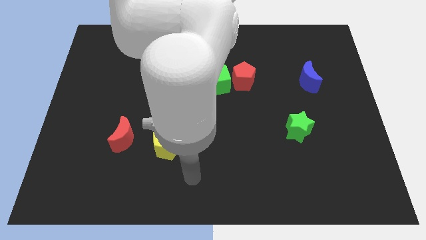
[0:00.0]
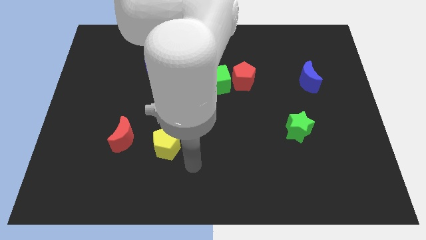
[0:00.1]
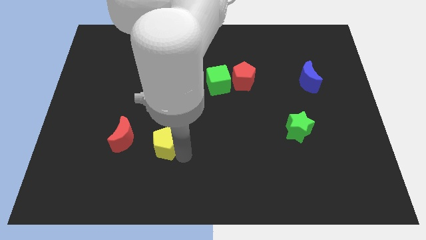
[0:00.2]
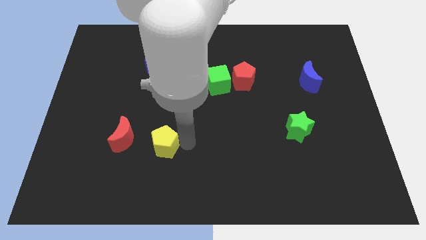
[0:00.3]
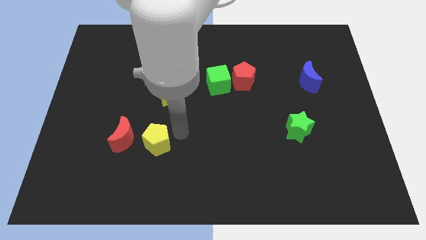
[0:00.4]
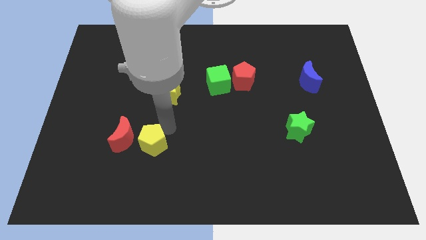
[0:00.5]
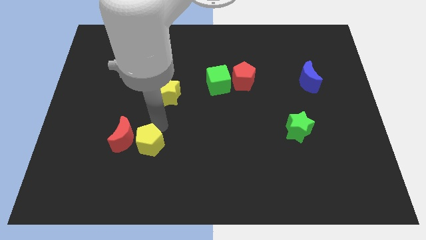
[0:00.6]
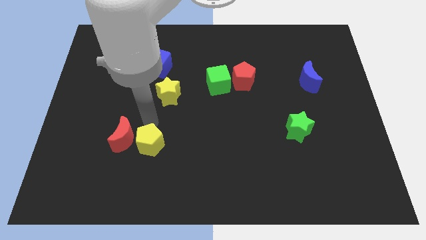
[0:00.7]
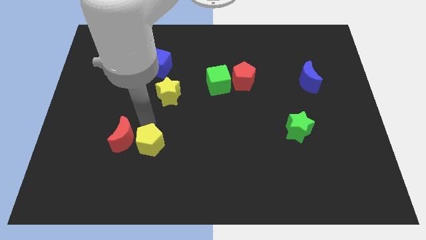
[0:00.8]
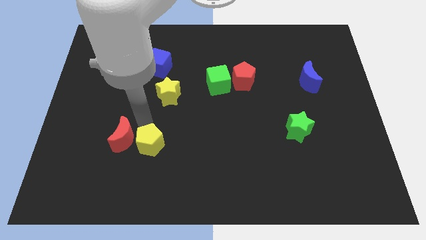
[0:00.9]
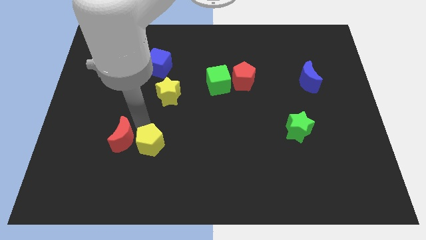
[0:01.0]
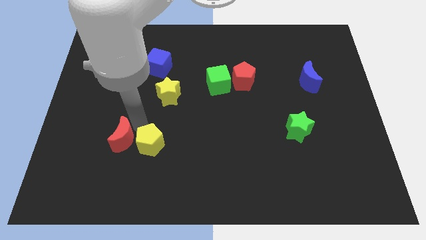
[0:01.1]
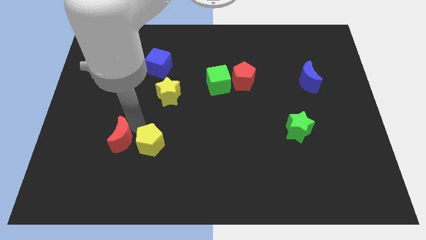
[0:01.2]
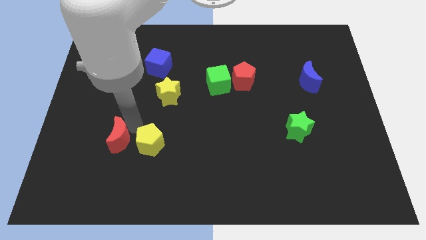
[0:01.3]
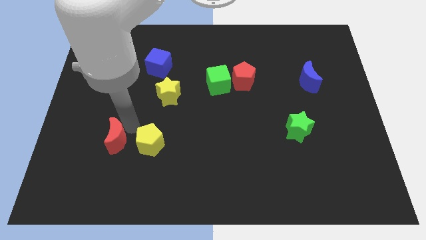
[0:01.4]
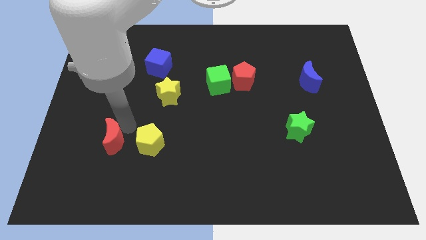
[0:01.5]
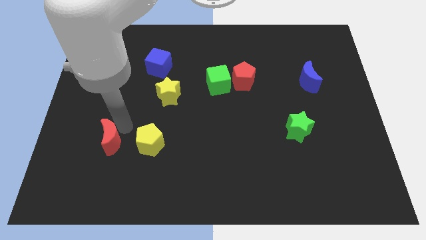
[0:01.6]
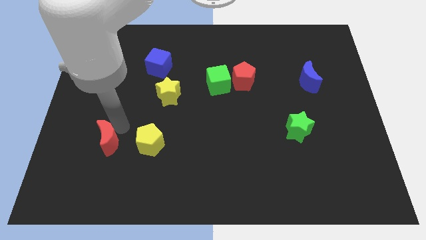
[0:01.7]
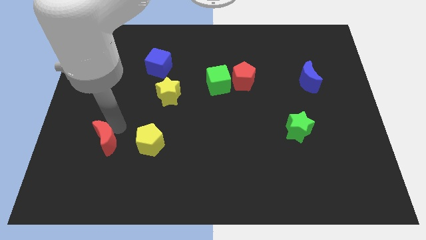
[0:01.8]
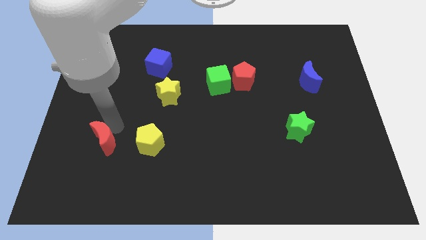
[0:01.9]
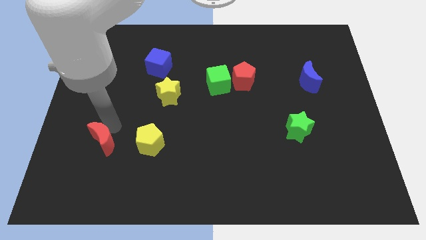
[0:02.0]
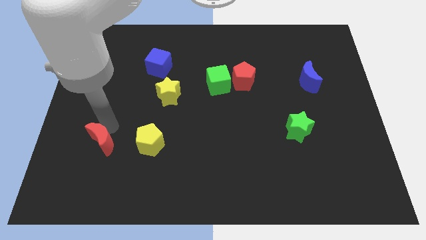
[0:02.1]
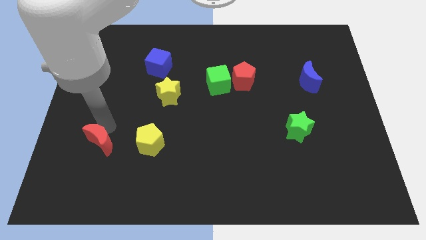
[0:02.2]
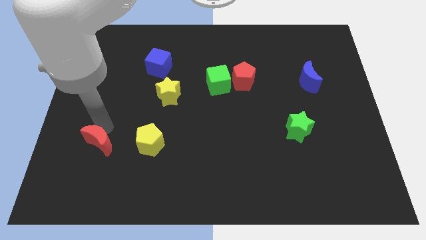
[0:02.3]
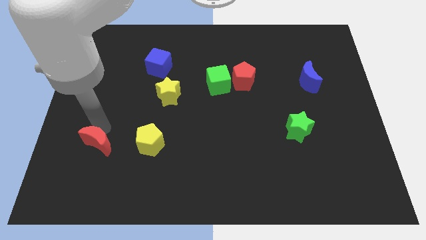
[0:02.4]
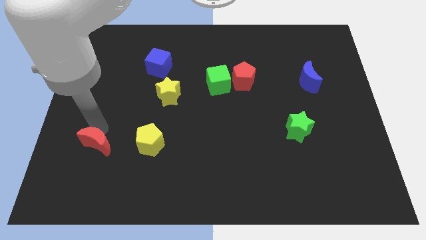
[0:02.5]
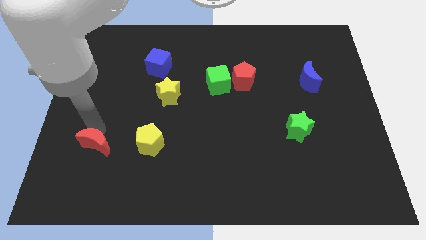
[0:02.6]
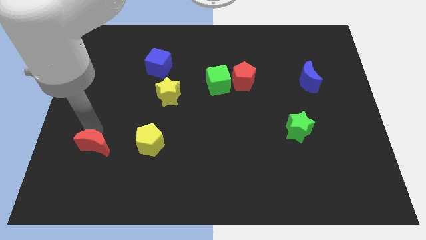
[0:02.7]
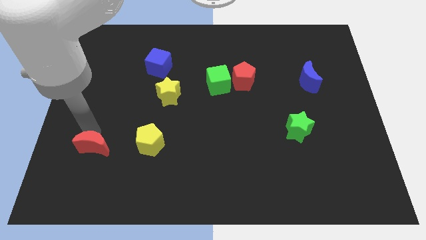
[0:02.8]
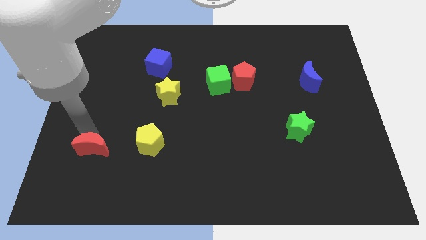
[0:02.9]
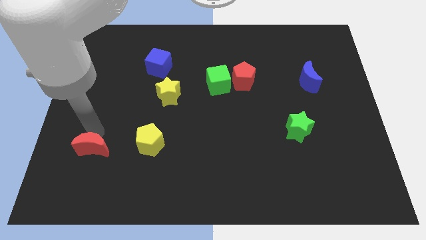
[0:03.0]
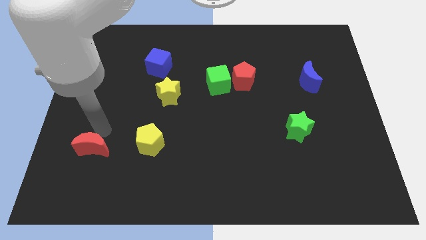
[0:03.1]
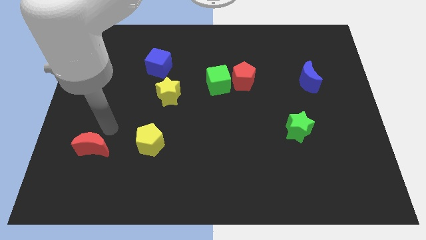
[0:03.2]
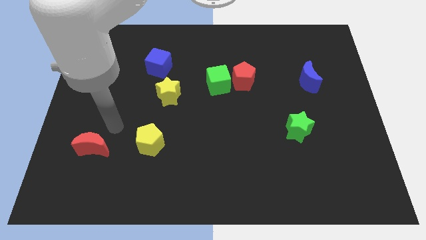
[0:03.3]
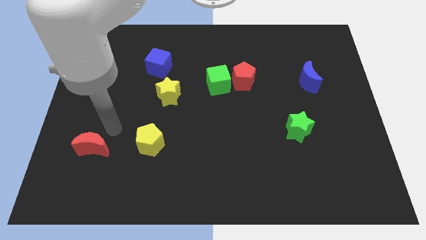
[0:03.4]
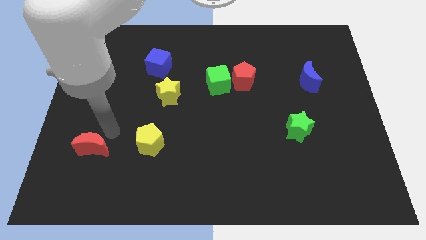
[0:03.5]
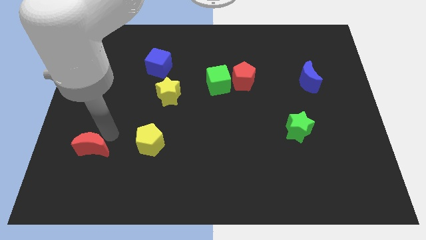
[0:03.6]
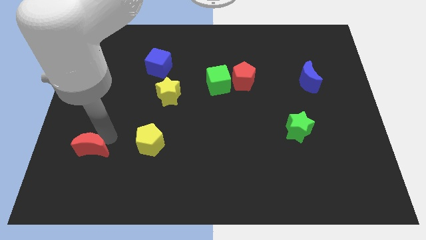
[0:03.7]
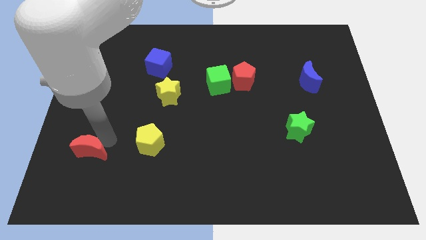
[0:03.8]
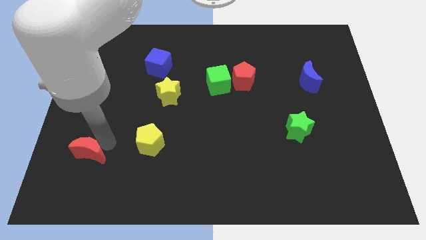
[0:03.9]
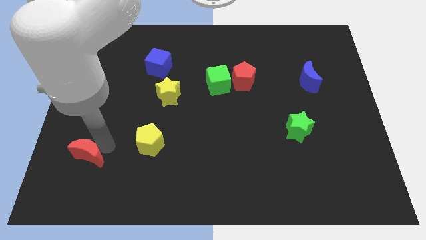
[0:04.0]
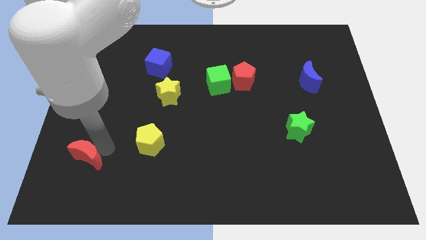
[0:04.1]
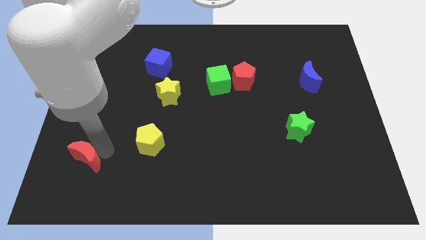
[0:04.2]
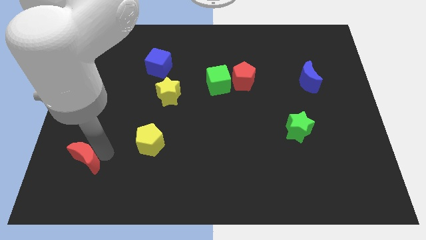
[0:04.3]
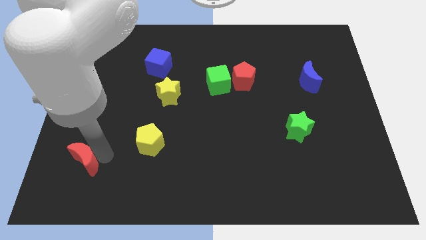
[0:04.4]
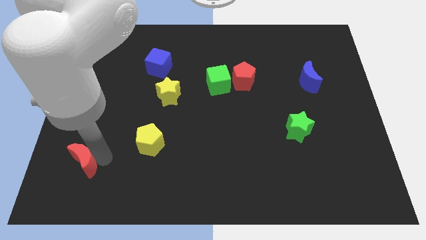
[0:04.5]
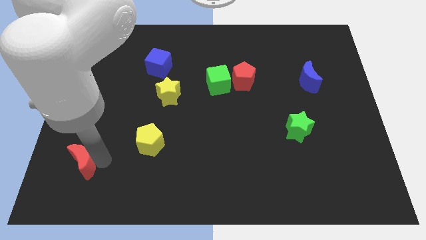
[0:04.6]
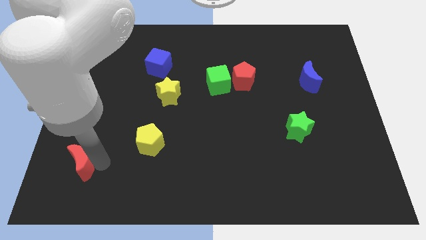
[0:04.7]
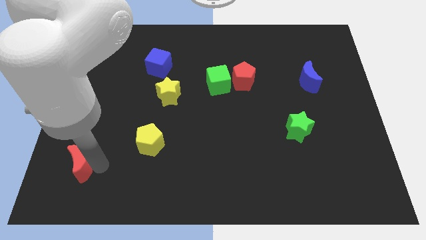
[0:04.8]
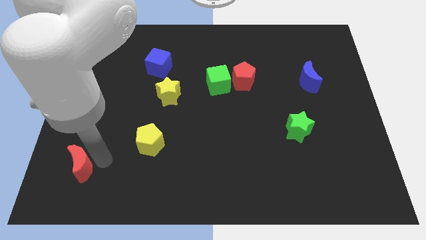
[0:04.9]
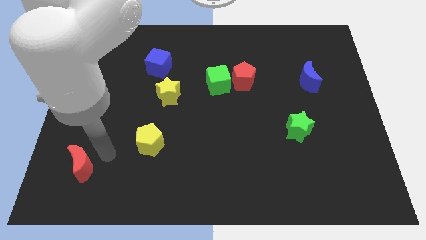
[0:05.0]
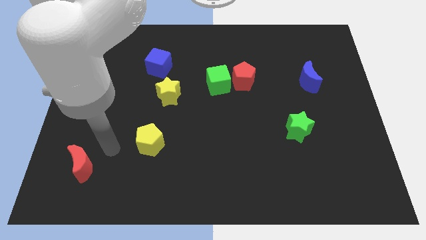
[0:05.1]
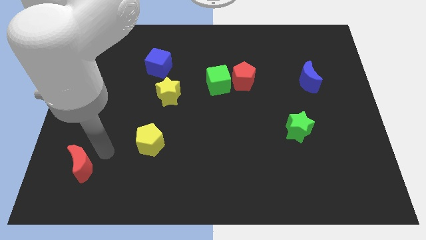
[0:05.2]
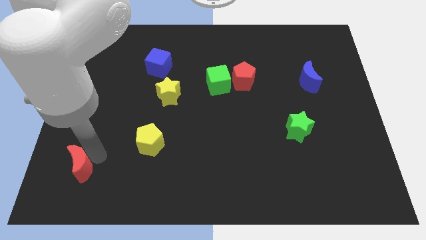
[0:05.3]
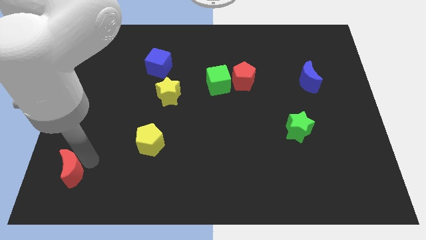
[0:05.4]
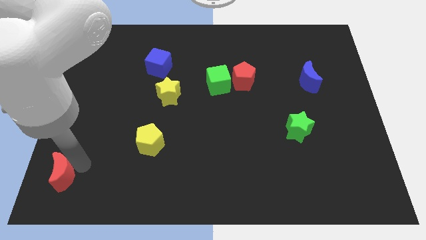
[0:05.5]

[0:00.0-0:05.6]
push the red moon to the bottom left corner

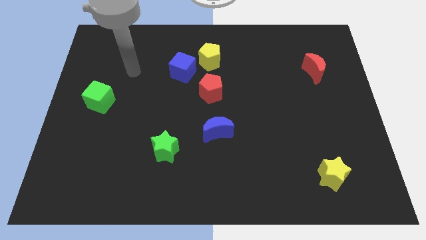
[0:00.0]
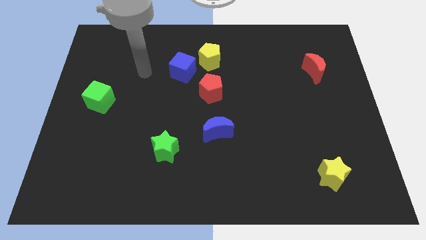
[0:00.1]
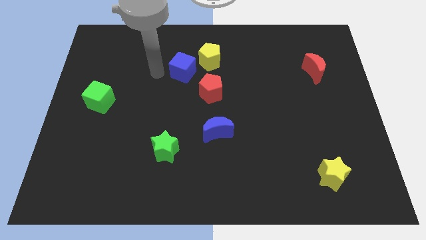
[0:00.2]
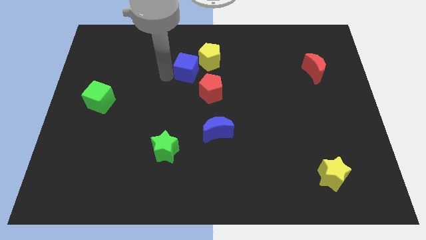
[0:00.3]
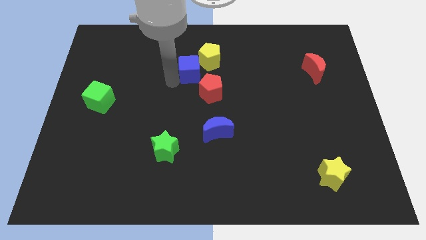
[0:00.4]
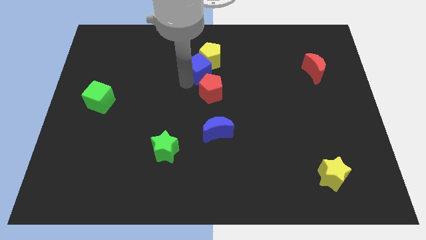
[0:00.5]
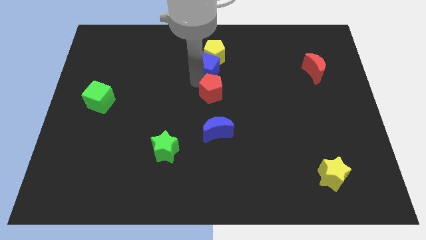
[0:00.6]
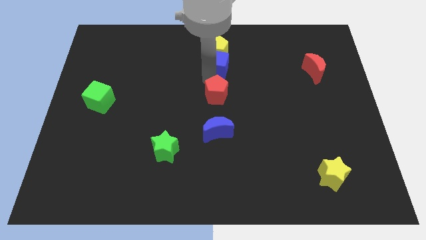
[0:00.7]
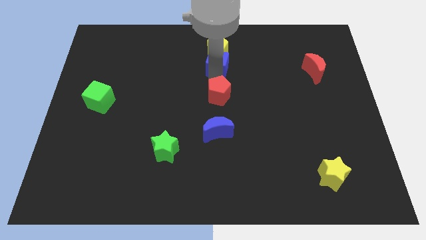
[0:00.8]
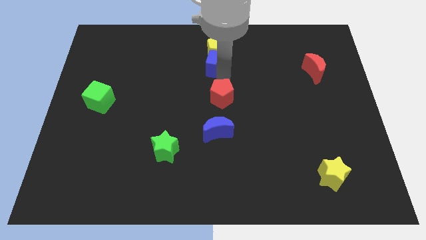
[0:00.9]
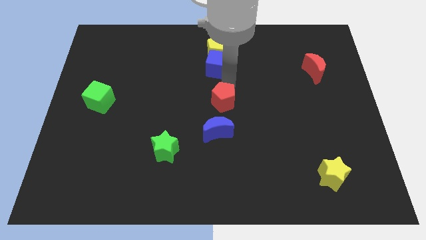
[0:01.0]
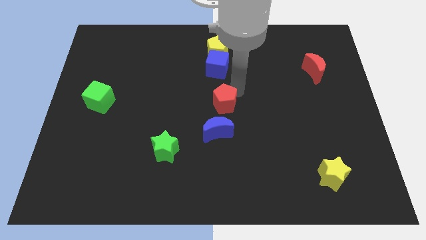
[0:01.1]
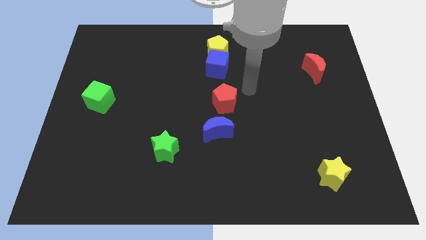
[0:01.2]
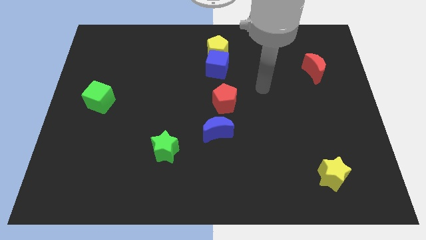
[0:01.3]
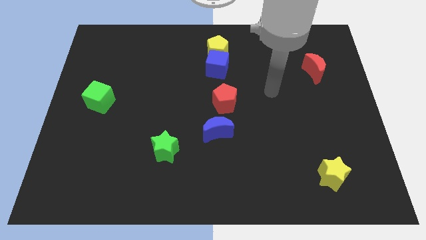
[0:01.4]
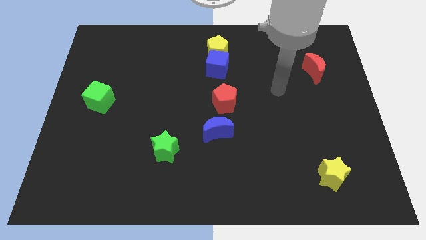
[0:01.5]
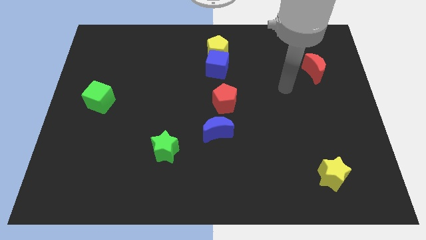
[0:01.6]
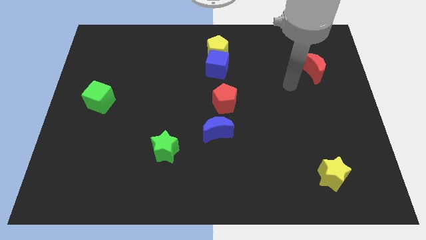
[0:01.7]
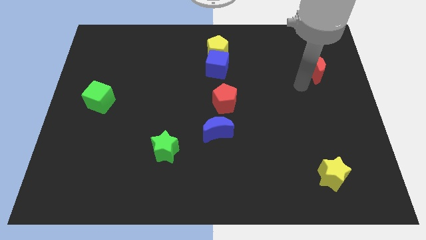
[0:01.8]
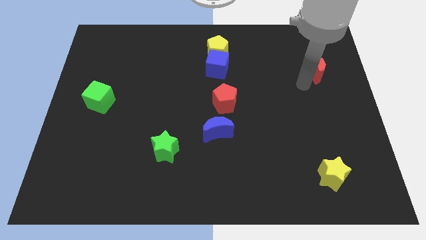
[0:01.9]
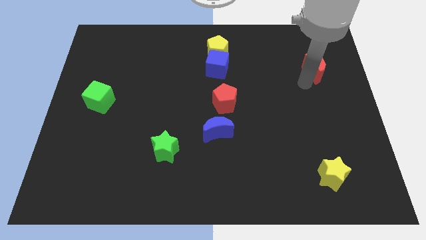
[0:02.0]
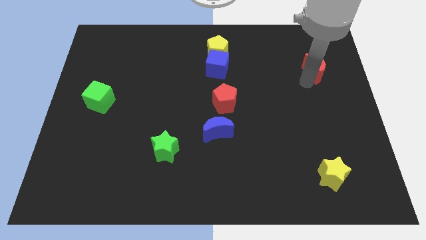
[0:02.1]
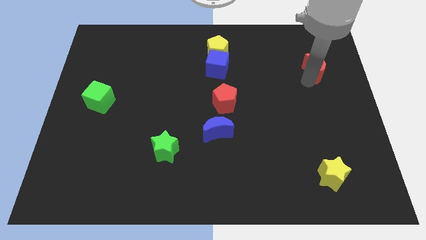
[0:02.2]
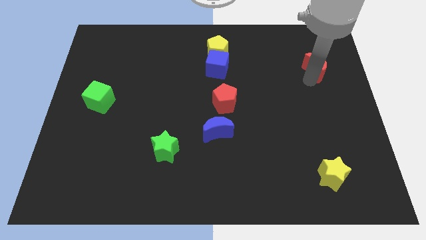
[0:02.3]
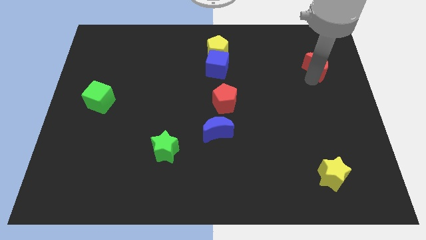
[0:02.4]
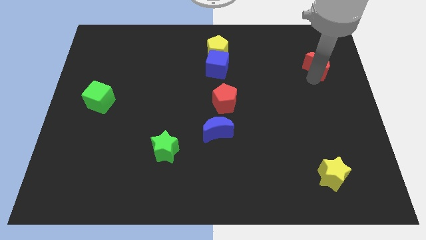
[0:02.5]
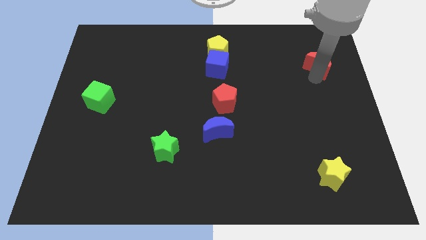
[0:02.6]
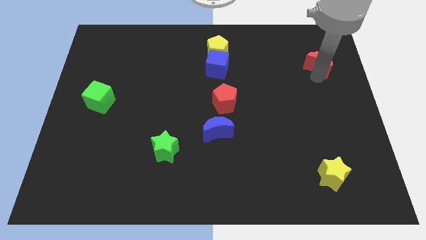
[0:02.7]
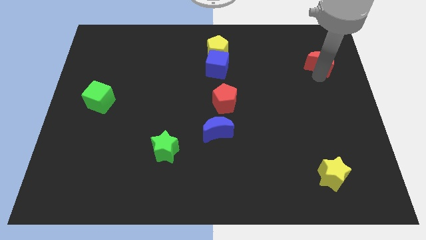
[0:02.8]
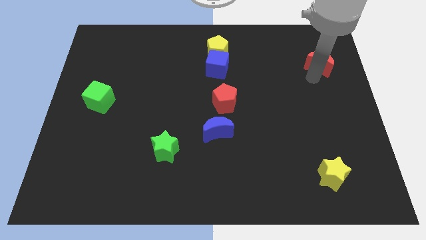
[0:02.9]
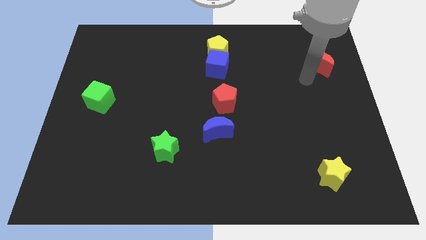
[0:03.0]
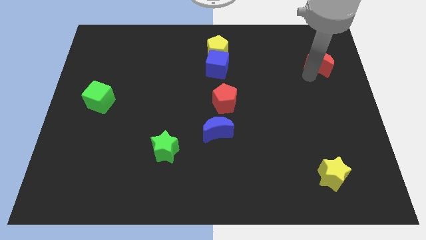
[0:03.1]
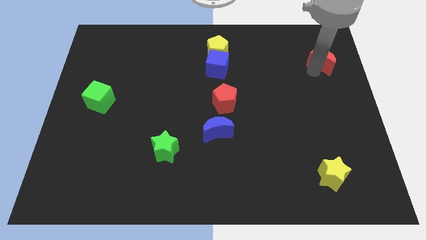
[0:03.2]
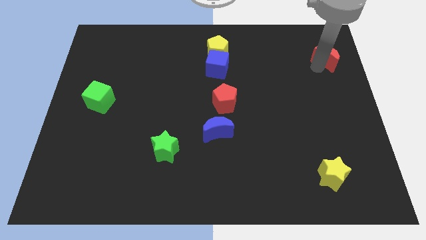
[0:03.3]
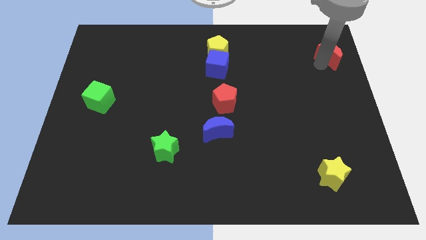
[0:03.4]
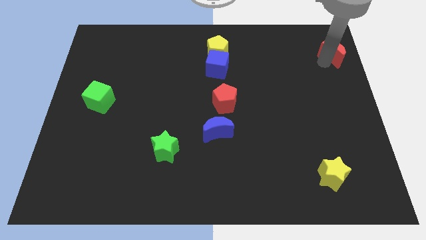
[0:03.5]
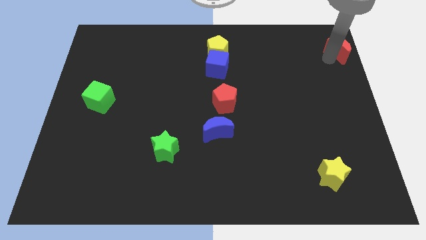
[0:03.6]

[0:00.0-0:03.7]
move the red moon to the top right of the board
